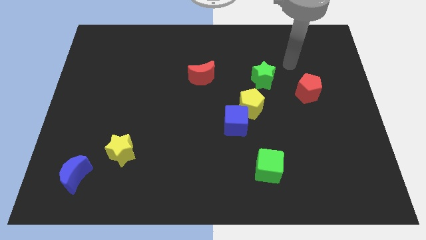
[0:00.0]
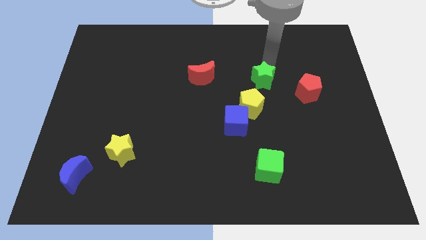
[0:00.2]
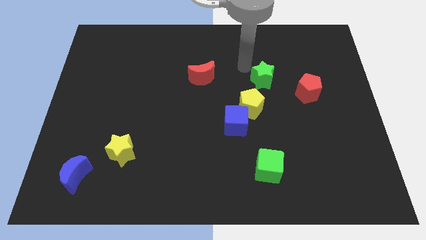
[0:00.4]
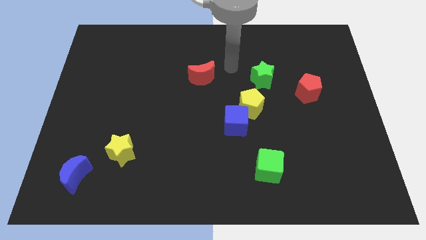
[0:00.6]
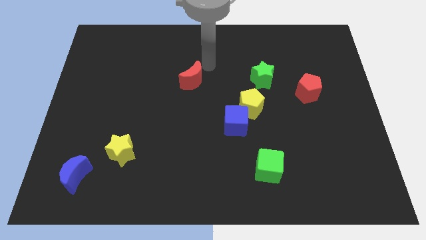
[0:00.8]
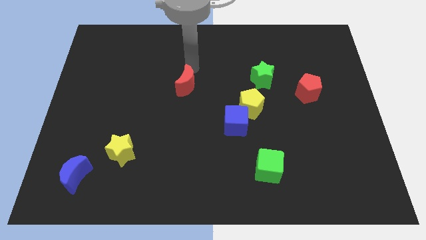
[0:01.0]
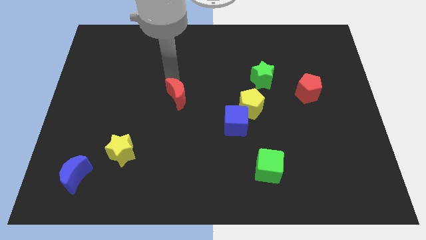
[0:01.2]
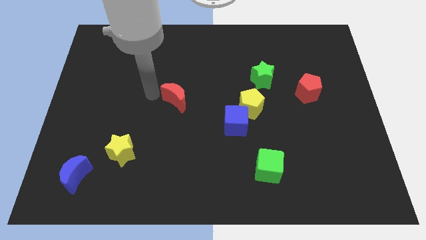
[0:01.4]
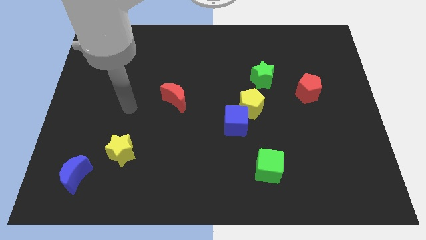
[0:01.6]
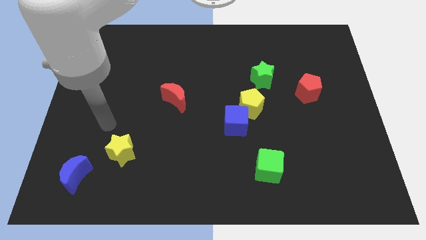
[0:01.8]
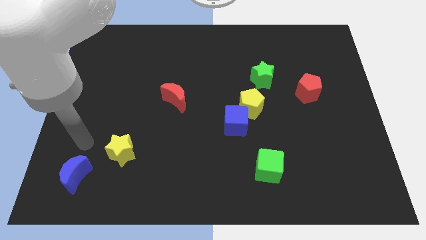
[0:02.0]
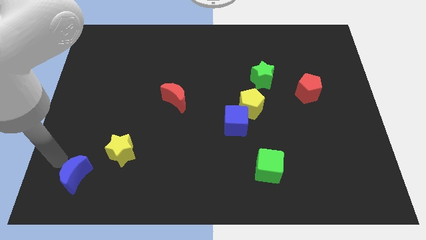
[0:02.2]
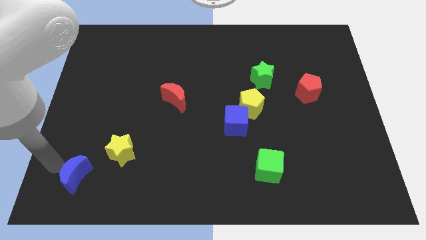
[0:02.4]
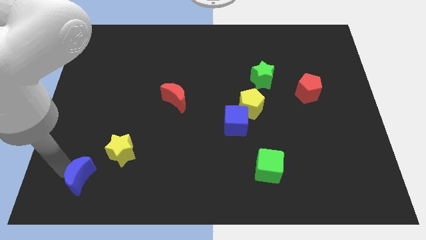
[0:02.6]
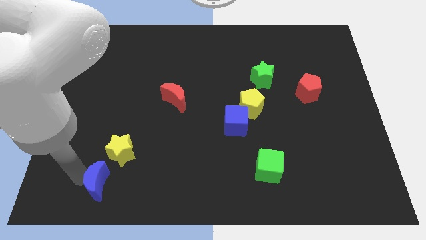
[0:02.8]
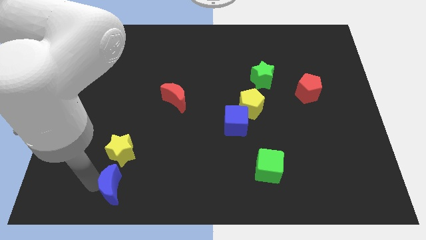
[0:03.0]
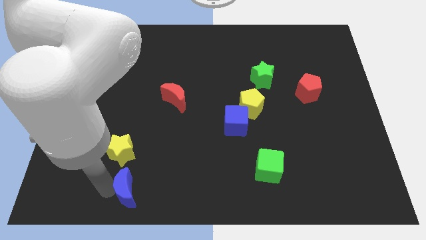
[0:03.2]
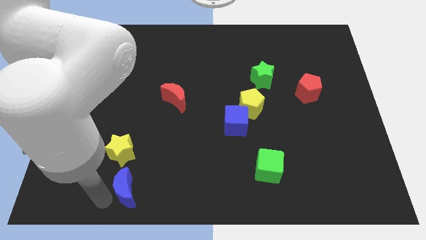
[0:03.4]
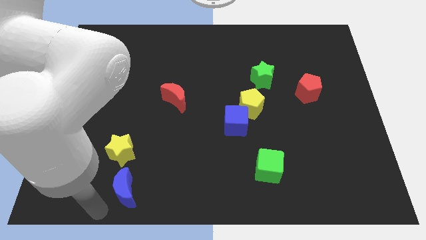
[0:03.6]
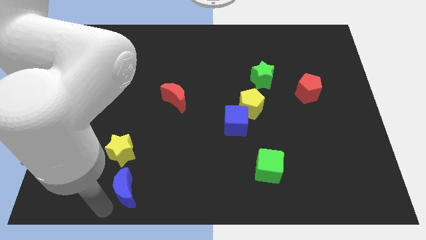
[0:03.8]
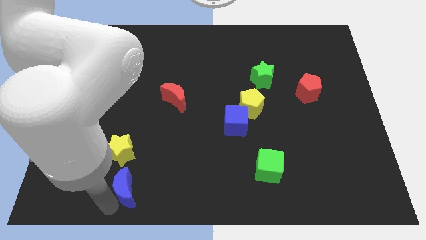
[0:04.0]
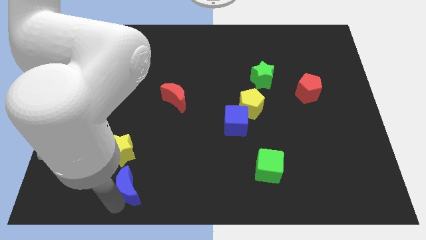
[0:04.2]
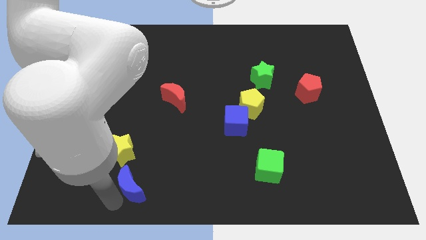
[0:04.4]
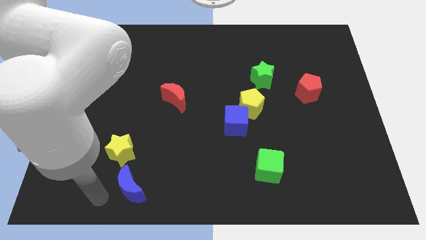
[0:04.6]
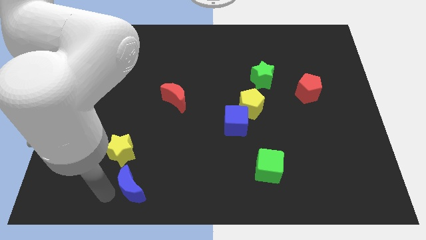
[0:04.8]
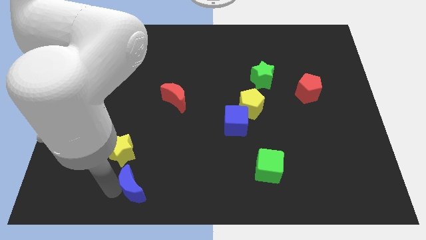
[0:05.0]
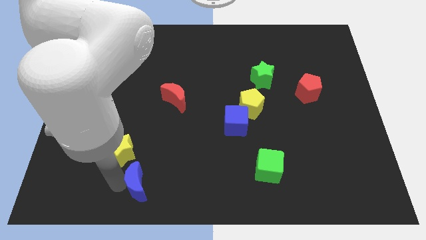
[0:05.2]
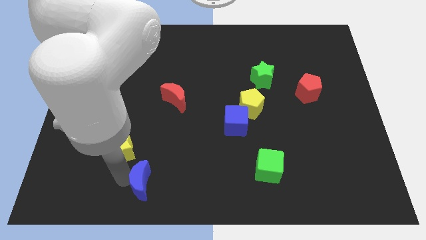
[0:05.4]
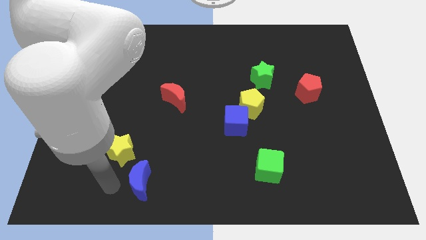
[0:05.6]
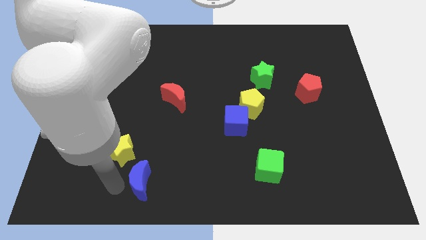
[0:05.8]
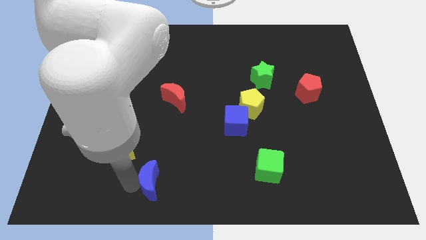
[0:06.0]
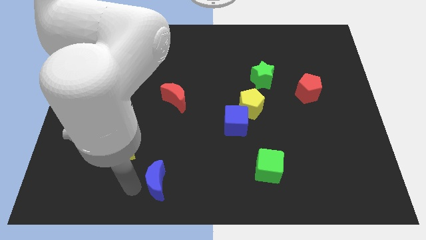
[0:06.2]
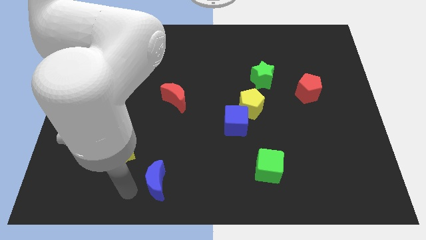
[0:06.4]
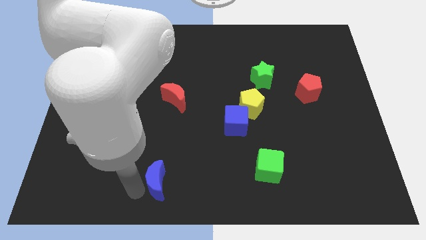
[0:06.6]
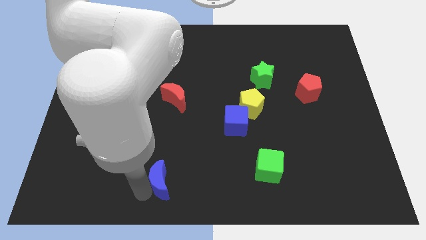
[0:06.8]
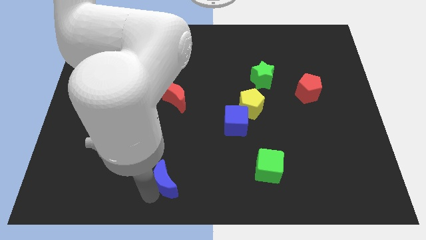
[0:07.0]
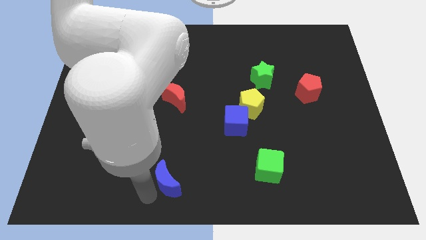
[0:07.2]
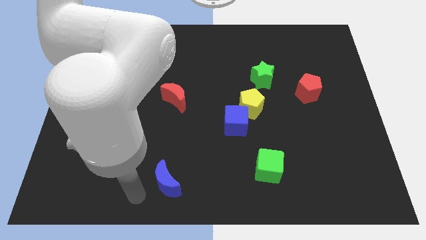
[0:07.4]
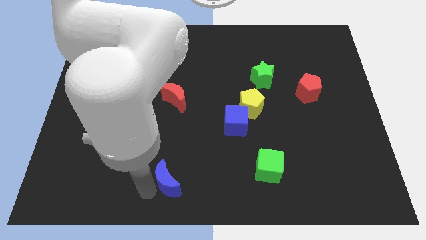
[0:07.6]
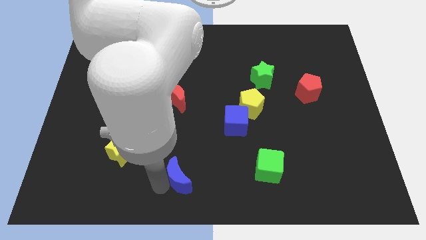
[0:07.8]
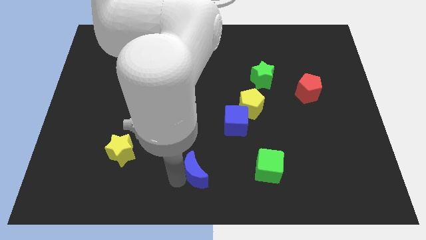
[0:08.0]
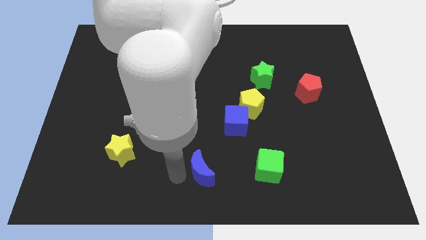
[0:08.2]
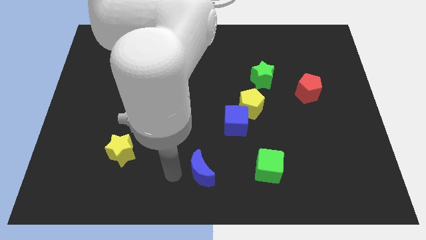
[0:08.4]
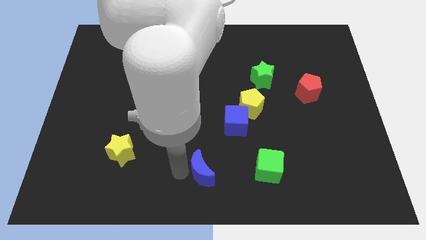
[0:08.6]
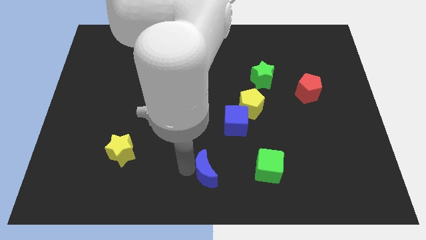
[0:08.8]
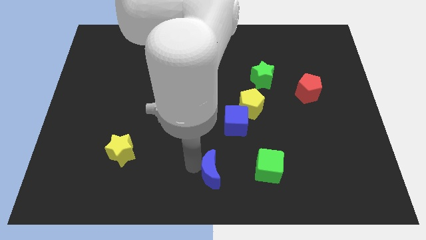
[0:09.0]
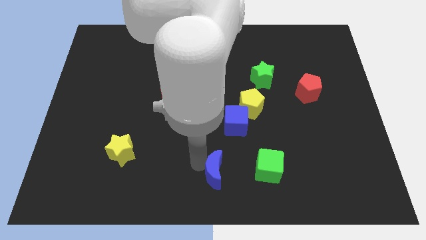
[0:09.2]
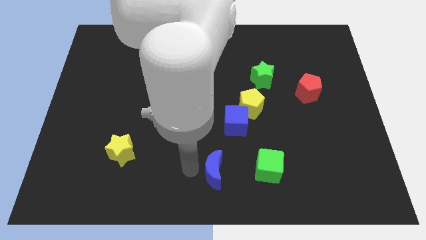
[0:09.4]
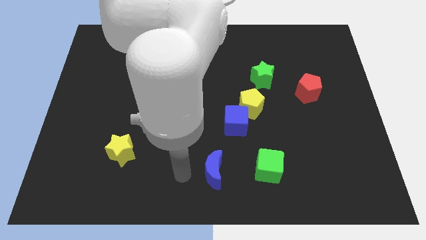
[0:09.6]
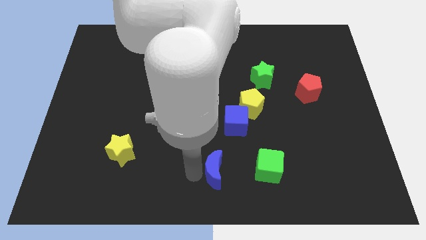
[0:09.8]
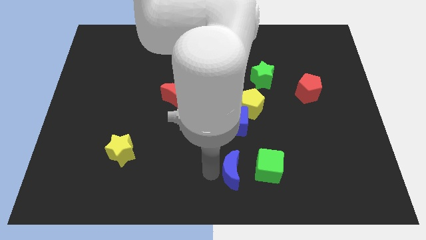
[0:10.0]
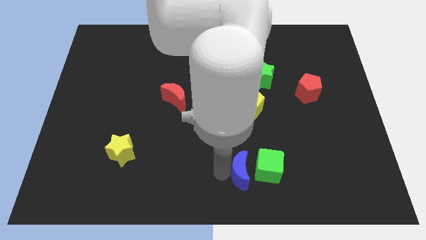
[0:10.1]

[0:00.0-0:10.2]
slide the blue moon next to the green cube

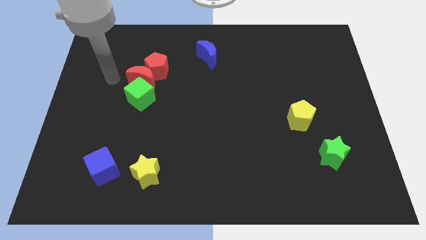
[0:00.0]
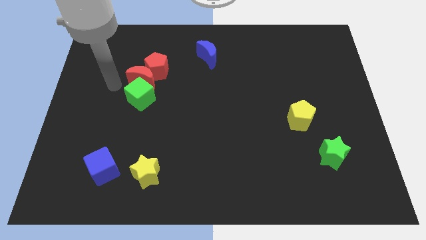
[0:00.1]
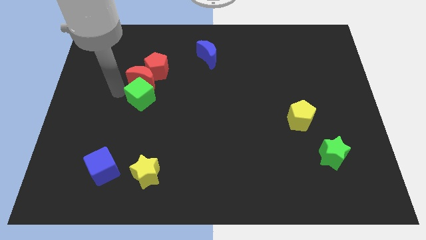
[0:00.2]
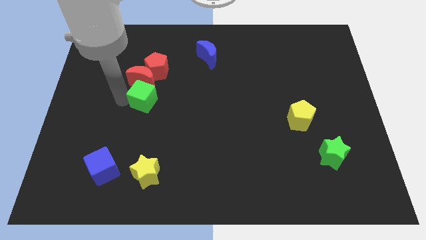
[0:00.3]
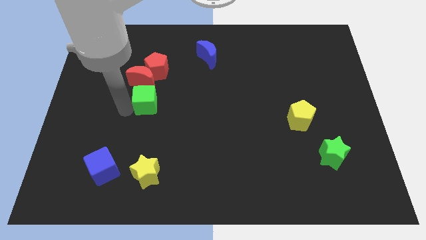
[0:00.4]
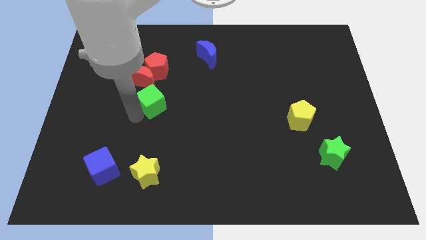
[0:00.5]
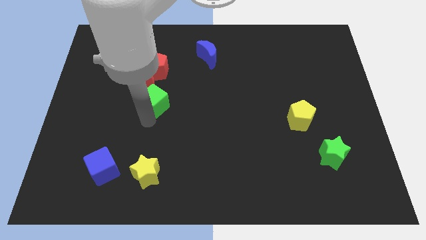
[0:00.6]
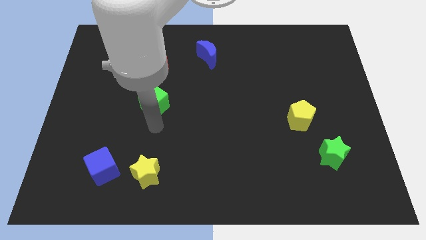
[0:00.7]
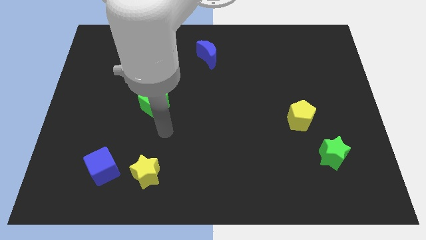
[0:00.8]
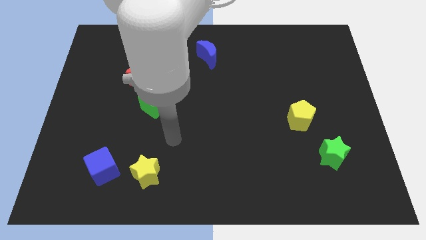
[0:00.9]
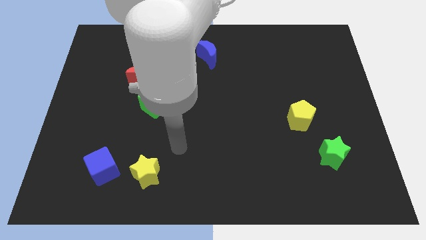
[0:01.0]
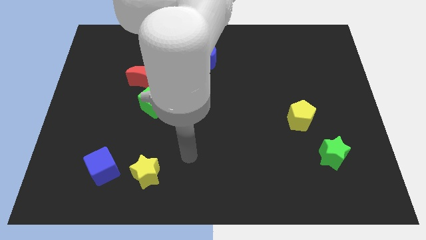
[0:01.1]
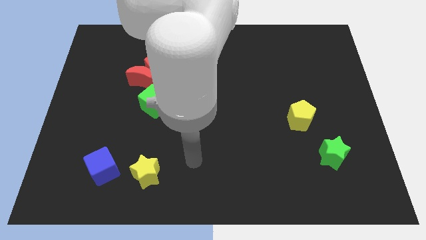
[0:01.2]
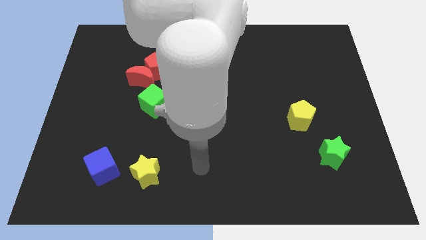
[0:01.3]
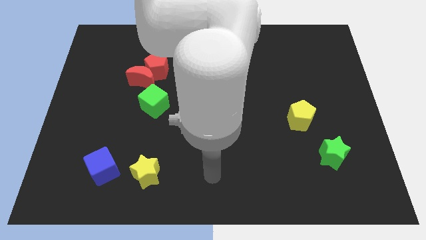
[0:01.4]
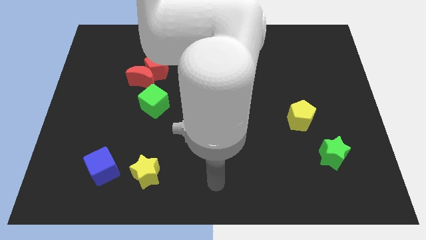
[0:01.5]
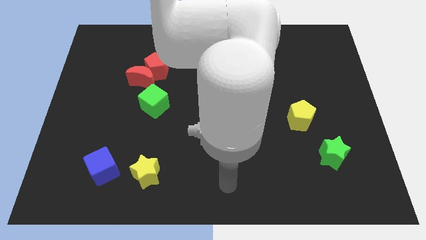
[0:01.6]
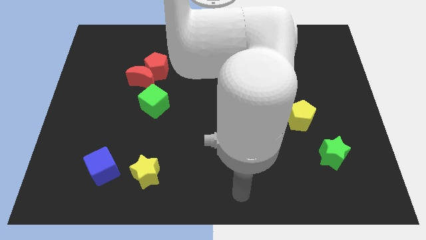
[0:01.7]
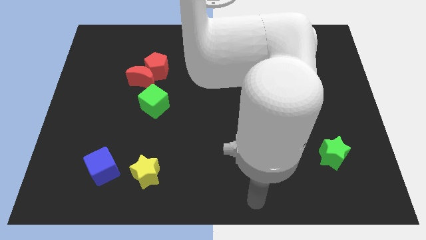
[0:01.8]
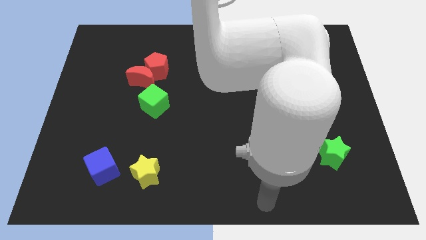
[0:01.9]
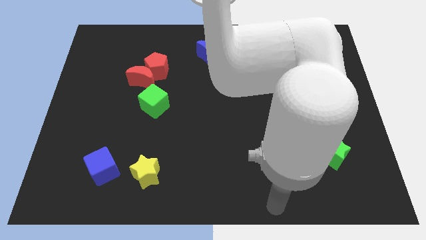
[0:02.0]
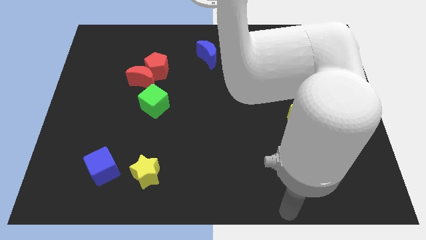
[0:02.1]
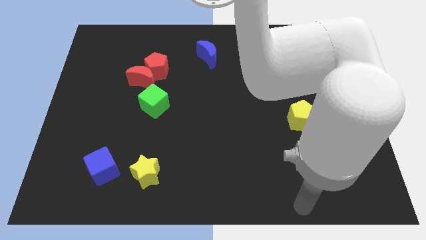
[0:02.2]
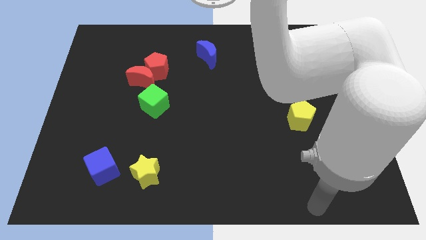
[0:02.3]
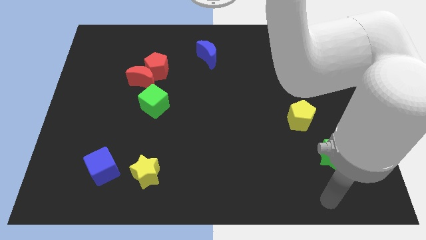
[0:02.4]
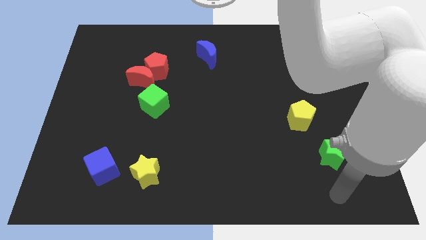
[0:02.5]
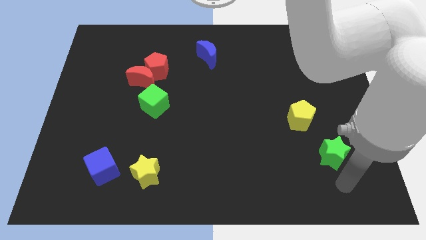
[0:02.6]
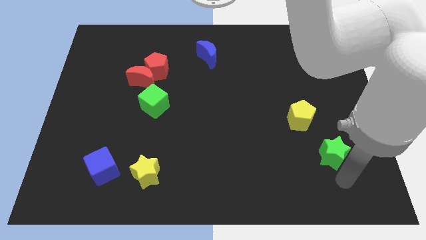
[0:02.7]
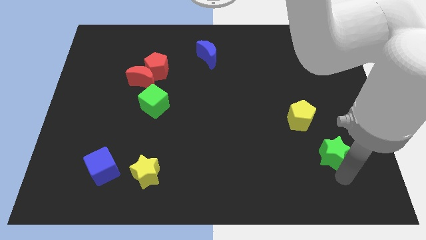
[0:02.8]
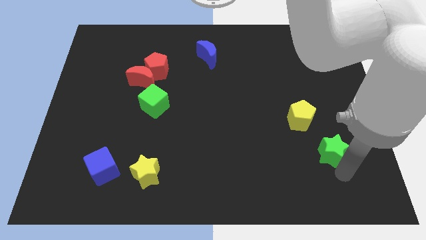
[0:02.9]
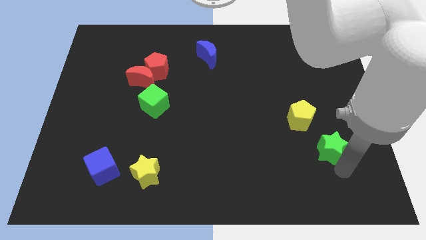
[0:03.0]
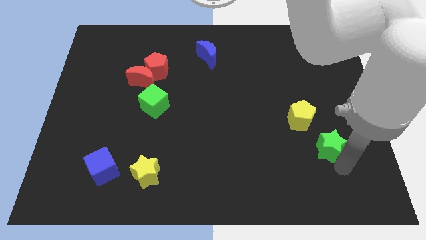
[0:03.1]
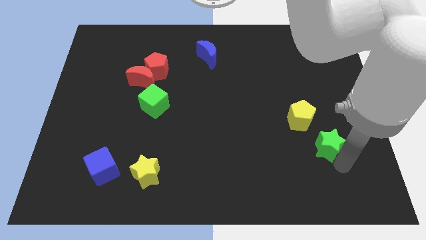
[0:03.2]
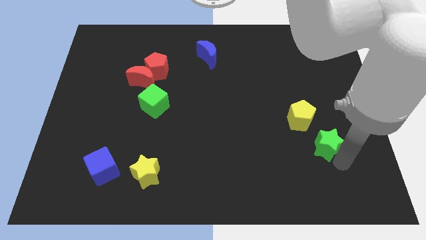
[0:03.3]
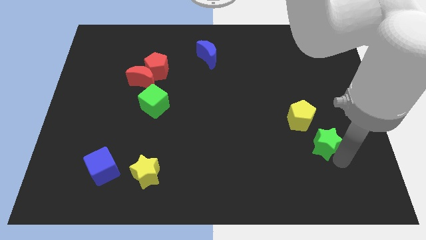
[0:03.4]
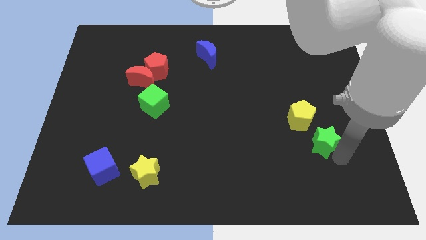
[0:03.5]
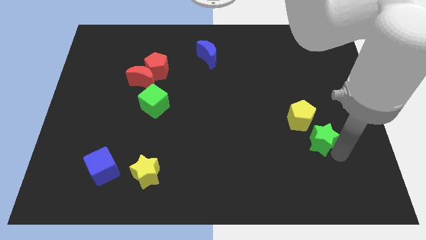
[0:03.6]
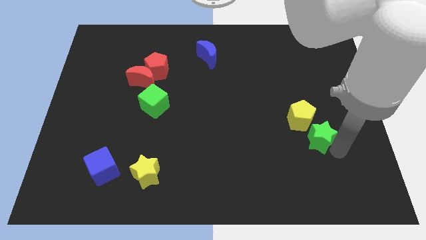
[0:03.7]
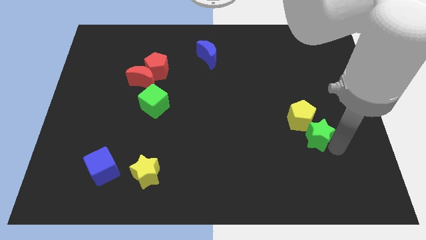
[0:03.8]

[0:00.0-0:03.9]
move the green star close to the yellow pentagon
